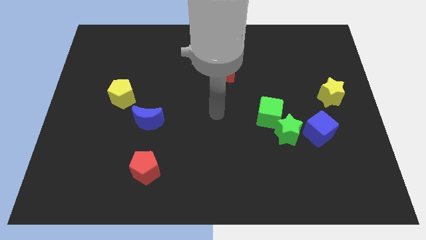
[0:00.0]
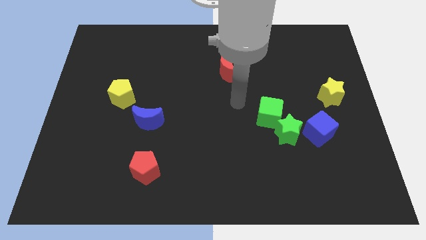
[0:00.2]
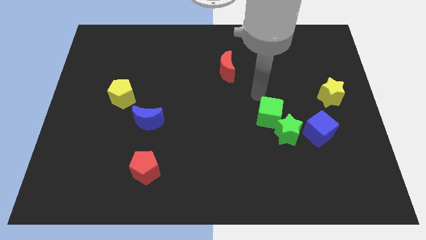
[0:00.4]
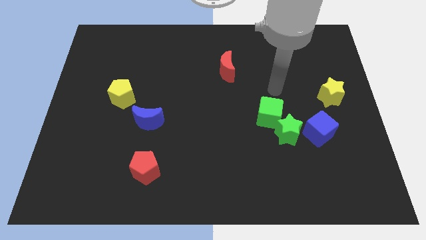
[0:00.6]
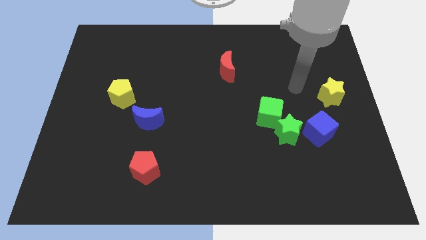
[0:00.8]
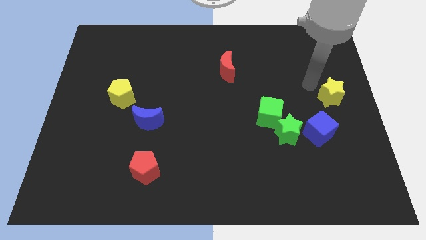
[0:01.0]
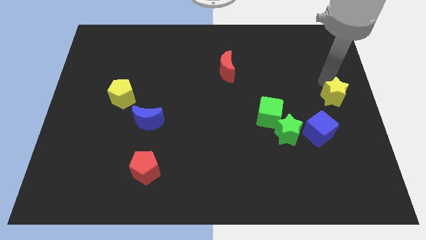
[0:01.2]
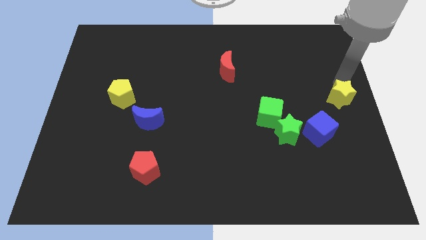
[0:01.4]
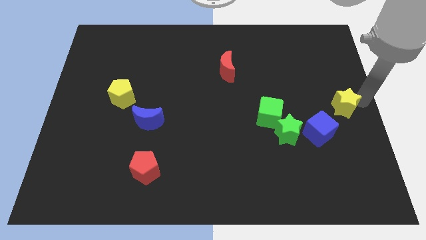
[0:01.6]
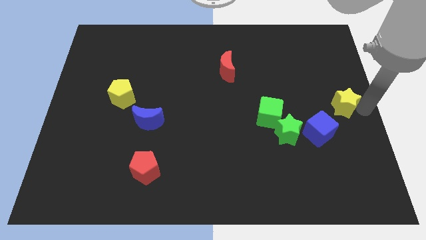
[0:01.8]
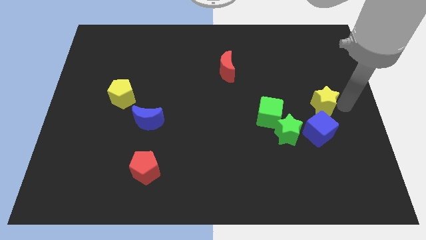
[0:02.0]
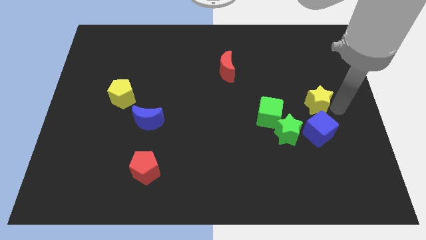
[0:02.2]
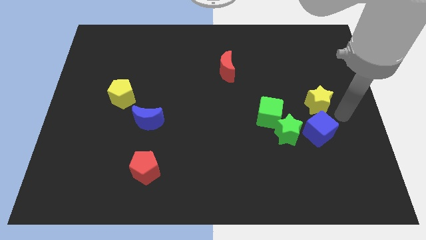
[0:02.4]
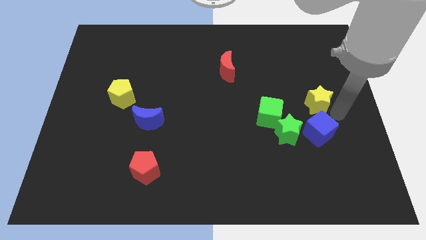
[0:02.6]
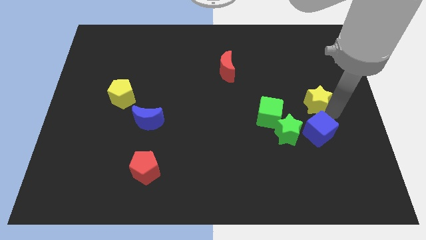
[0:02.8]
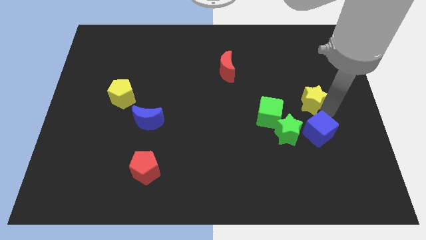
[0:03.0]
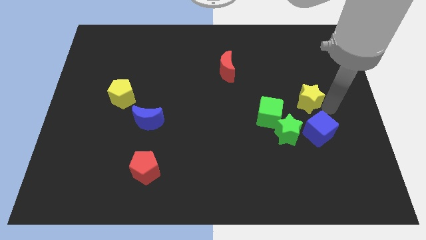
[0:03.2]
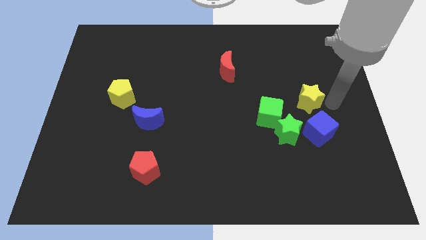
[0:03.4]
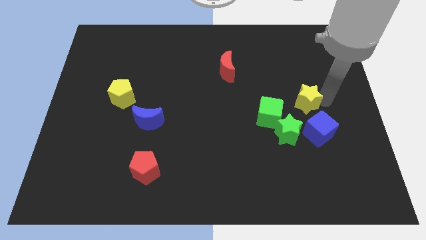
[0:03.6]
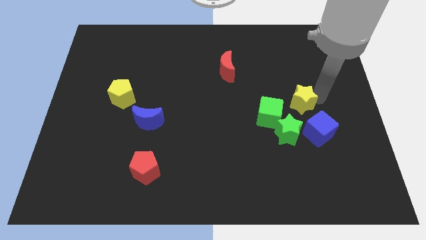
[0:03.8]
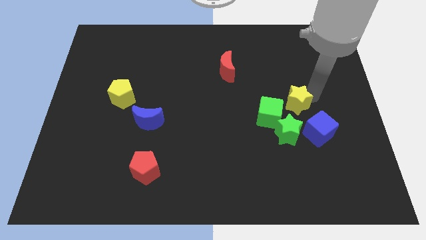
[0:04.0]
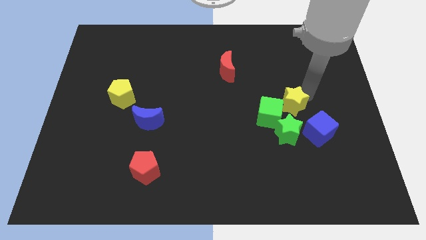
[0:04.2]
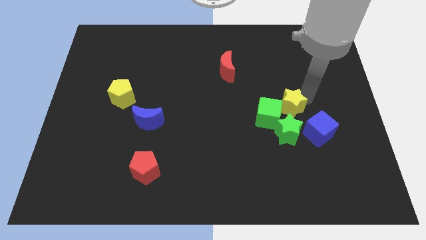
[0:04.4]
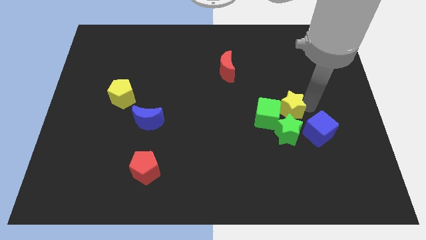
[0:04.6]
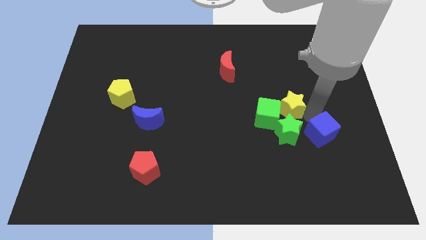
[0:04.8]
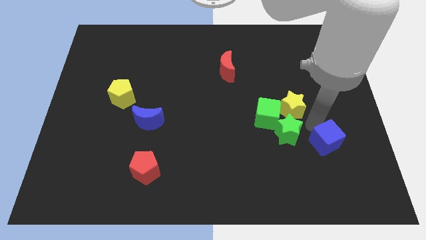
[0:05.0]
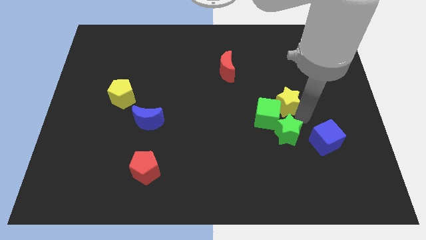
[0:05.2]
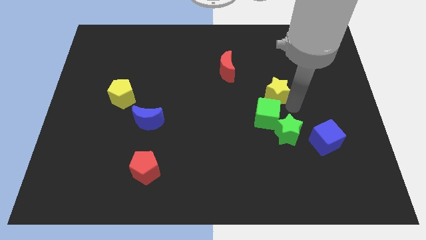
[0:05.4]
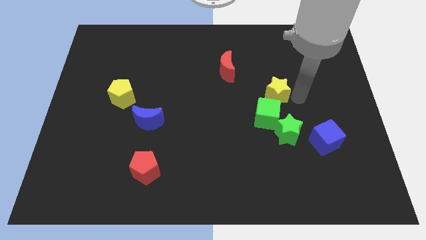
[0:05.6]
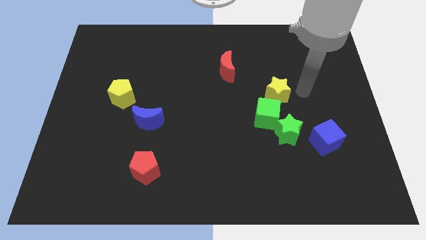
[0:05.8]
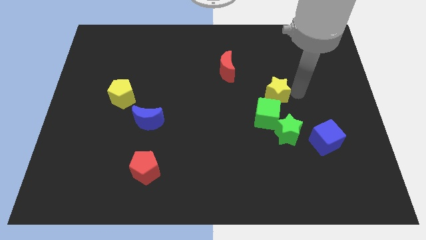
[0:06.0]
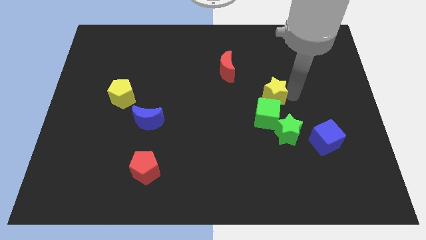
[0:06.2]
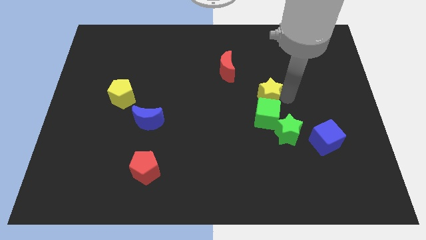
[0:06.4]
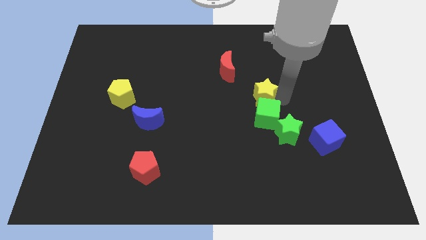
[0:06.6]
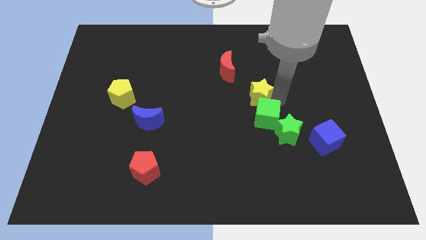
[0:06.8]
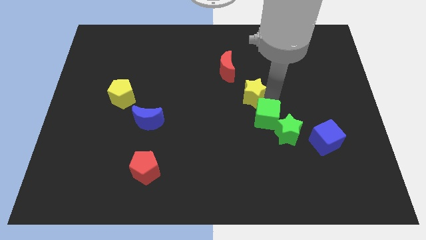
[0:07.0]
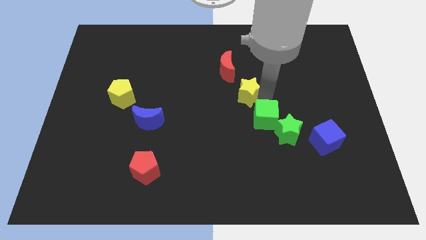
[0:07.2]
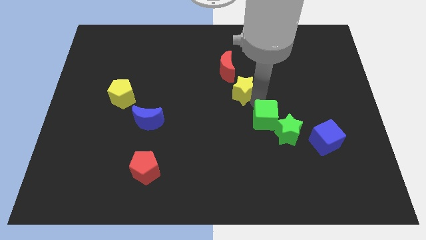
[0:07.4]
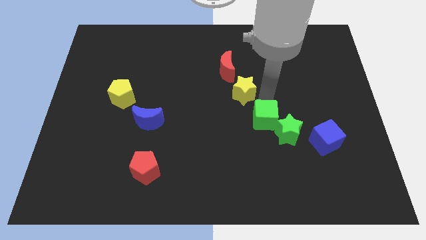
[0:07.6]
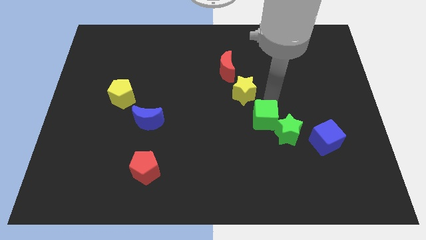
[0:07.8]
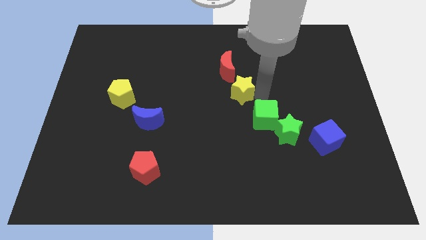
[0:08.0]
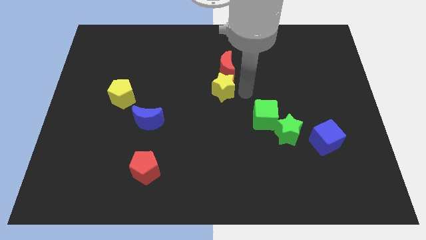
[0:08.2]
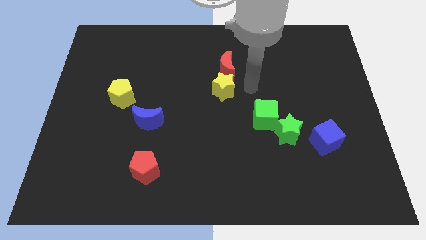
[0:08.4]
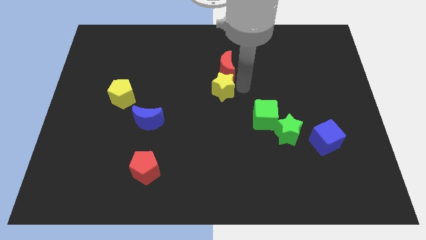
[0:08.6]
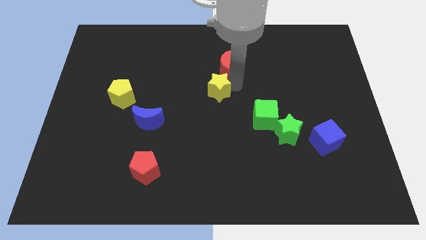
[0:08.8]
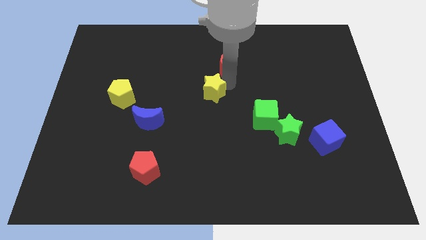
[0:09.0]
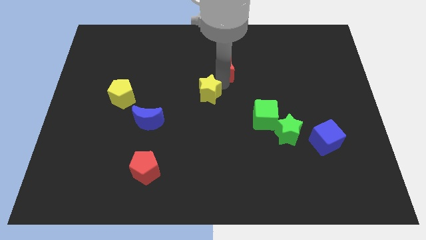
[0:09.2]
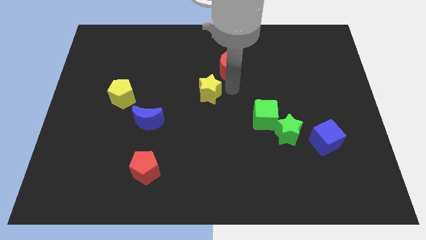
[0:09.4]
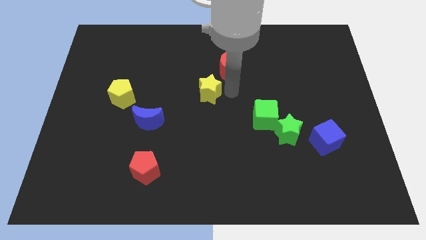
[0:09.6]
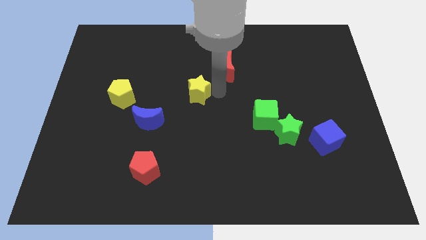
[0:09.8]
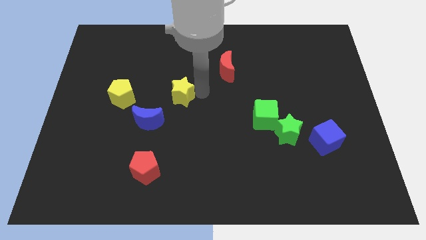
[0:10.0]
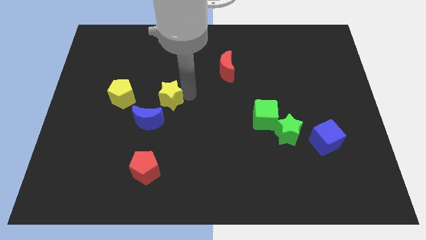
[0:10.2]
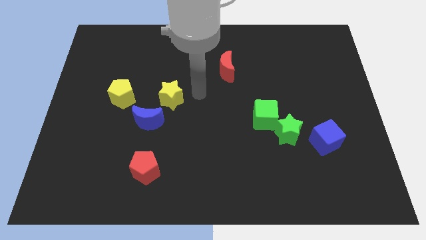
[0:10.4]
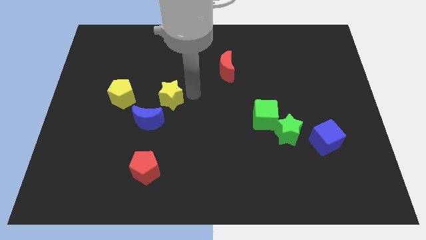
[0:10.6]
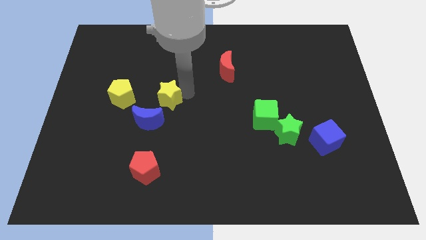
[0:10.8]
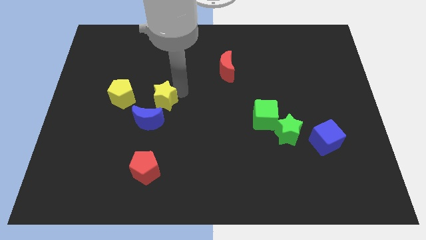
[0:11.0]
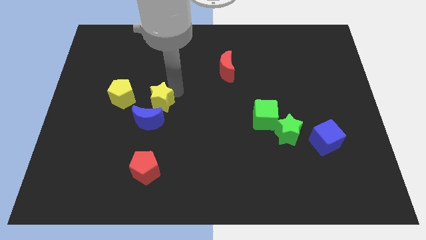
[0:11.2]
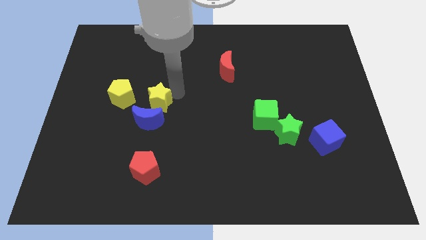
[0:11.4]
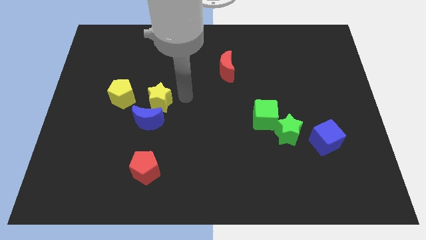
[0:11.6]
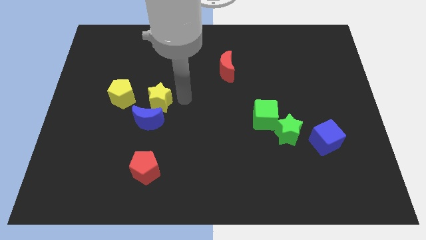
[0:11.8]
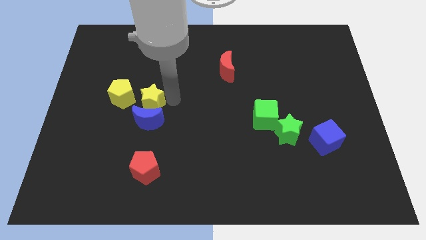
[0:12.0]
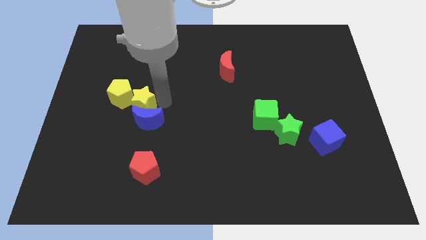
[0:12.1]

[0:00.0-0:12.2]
put the yellow star towards the yellow pentagon

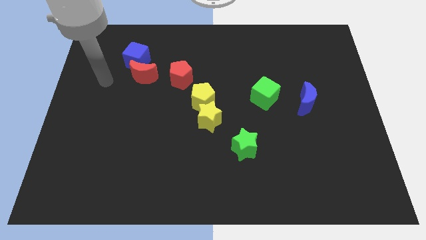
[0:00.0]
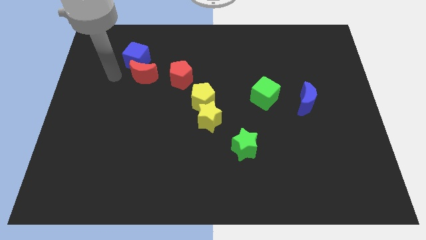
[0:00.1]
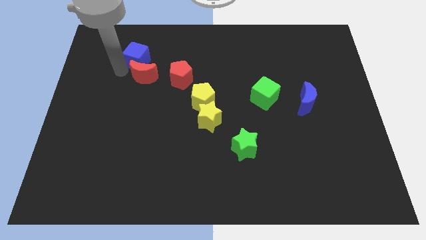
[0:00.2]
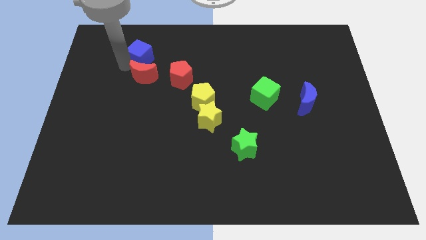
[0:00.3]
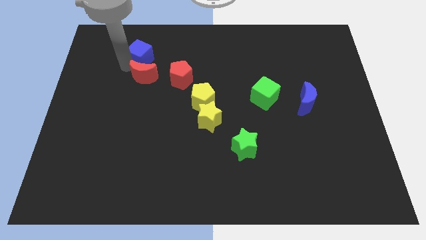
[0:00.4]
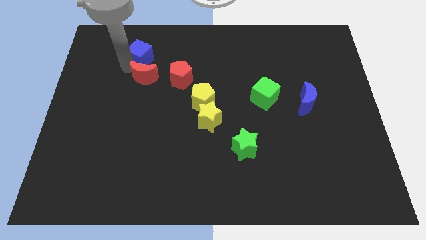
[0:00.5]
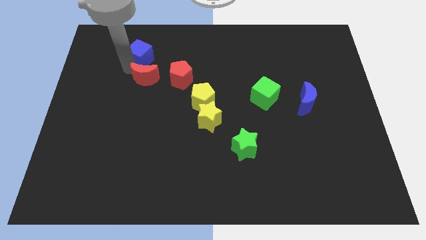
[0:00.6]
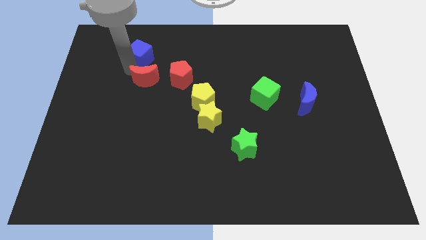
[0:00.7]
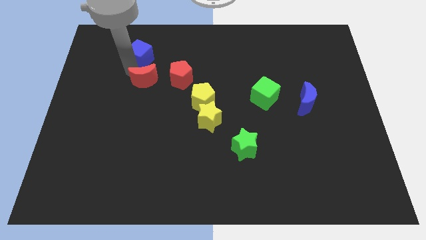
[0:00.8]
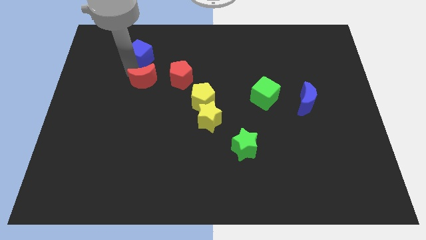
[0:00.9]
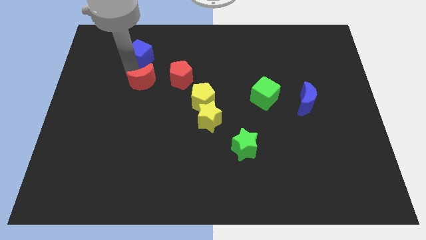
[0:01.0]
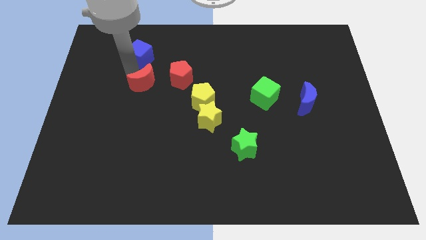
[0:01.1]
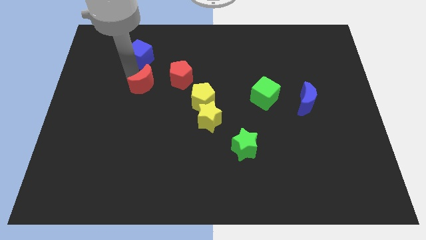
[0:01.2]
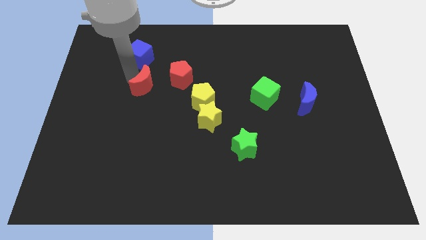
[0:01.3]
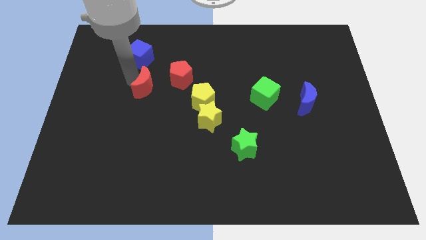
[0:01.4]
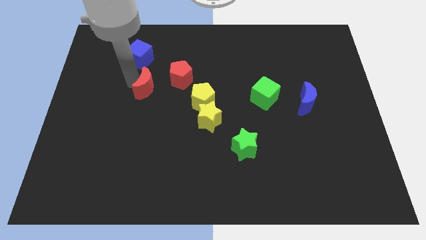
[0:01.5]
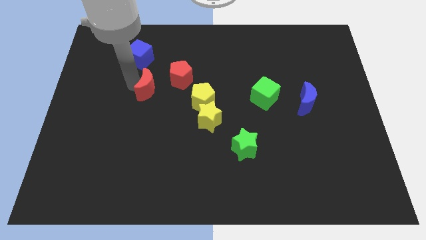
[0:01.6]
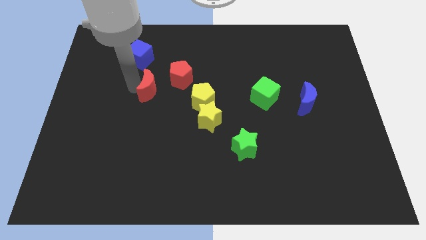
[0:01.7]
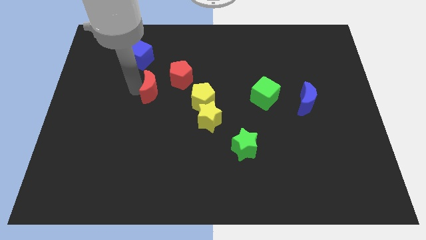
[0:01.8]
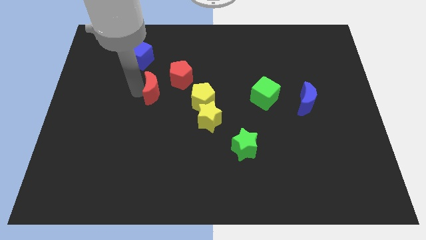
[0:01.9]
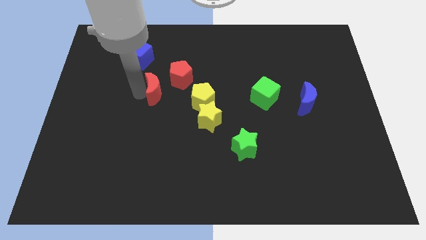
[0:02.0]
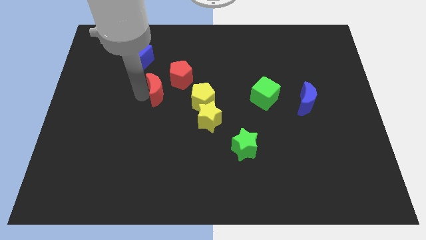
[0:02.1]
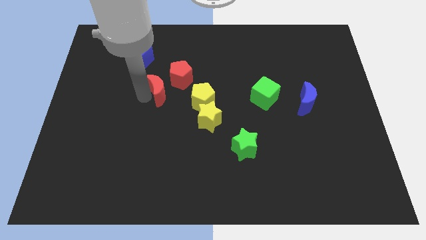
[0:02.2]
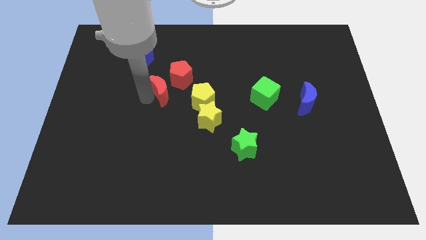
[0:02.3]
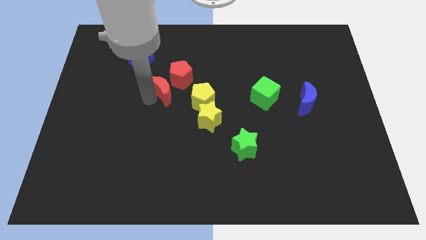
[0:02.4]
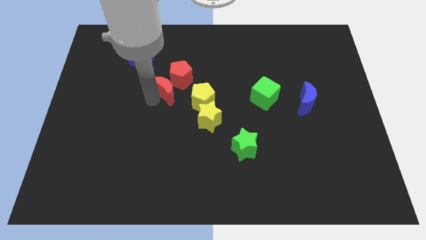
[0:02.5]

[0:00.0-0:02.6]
put the red moon to the red pentagon
